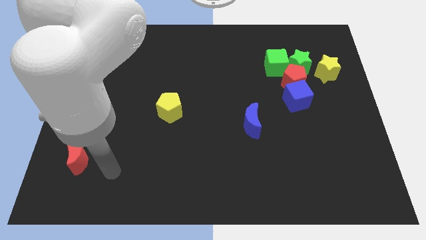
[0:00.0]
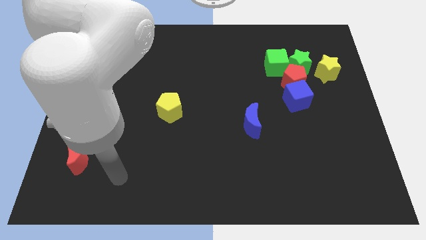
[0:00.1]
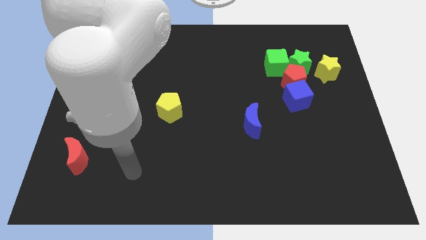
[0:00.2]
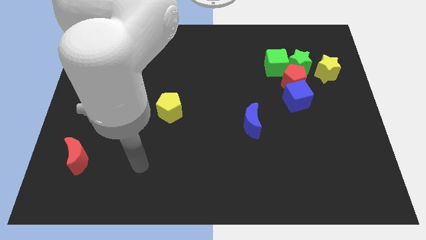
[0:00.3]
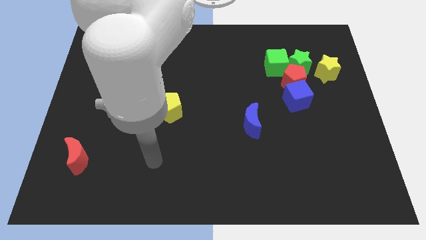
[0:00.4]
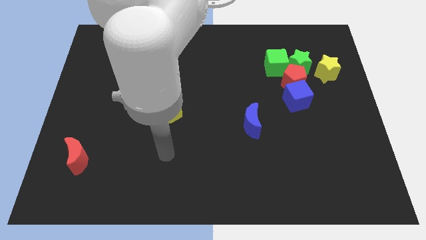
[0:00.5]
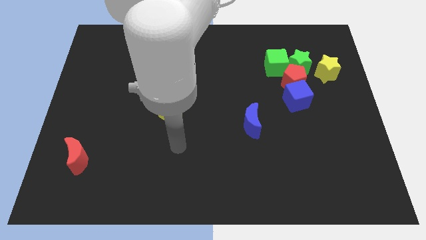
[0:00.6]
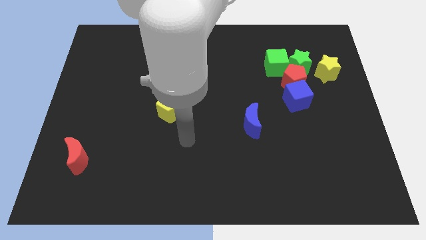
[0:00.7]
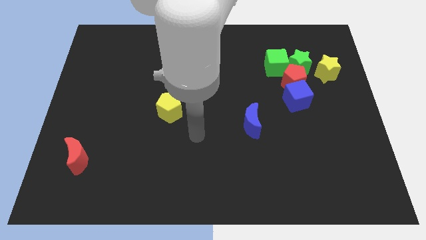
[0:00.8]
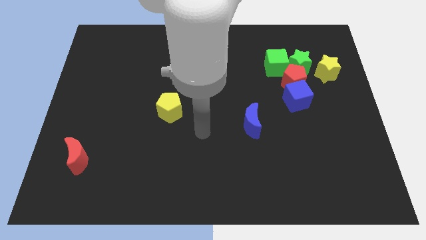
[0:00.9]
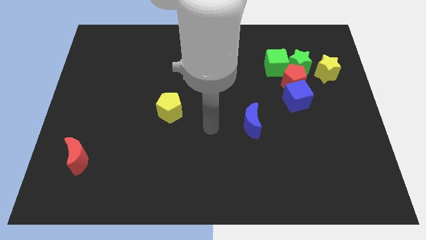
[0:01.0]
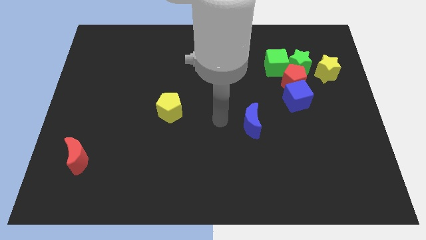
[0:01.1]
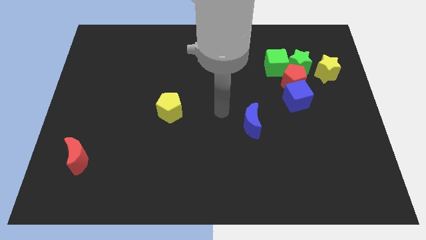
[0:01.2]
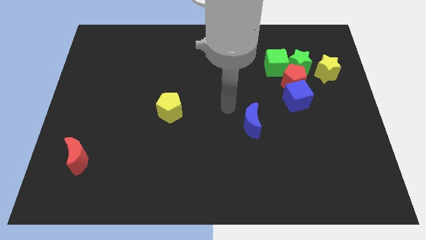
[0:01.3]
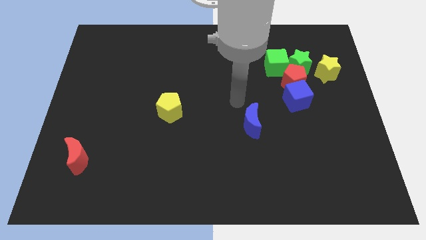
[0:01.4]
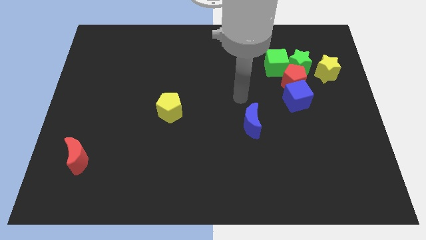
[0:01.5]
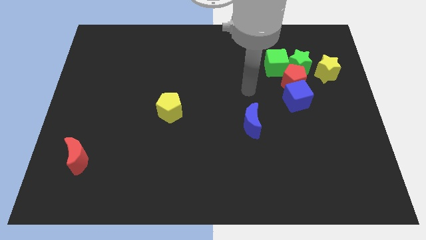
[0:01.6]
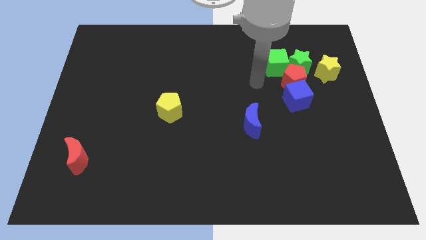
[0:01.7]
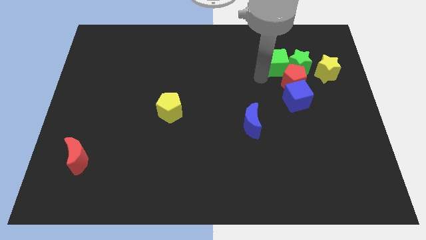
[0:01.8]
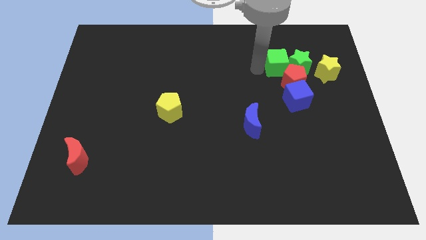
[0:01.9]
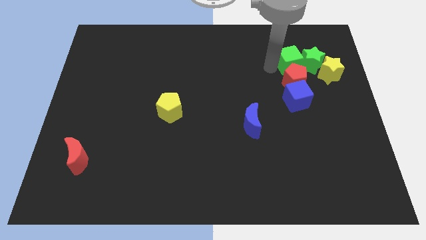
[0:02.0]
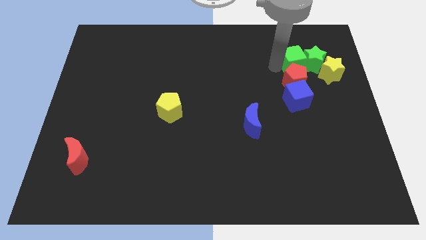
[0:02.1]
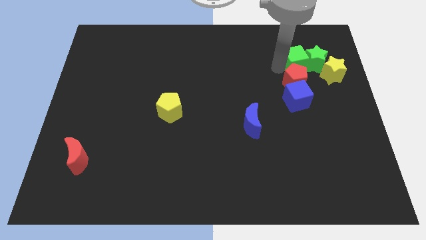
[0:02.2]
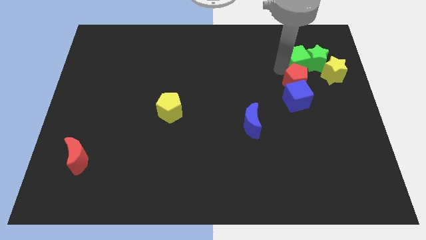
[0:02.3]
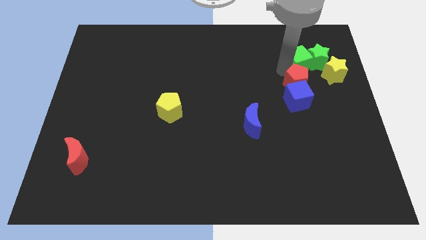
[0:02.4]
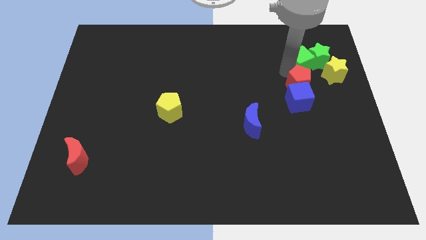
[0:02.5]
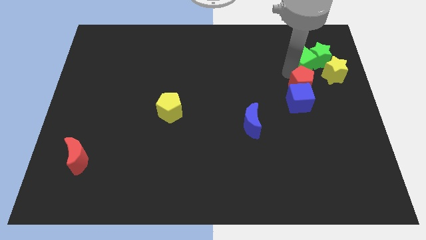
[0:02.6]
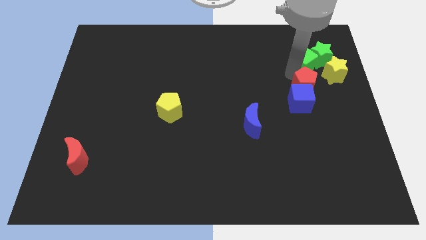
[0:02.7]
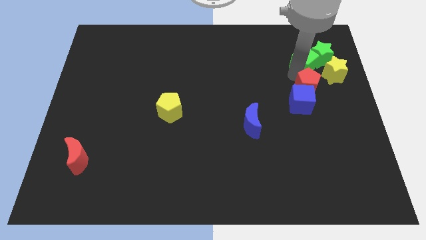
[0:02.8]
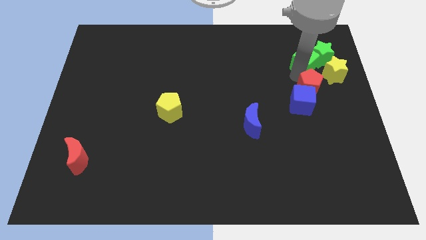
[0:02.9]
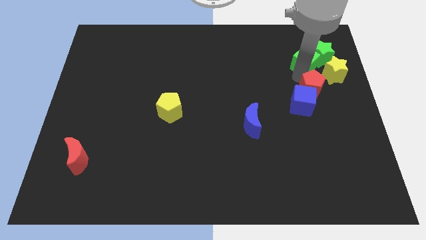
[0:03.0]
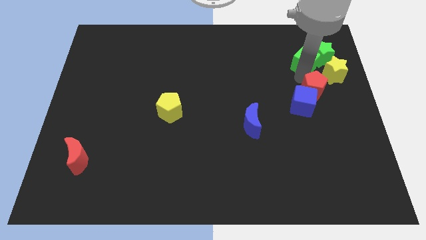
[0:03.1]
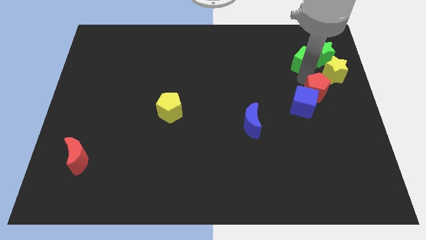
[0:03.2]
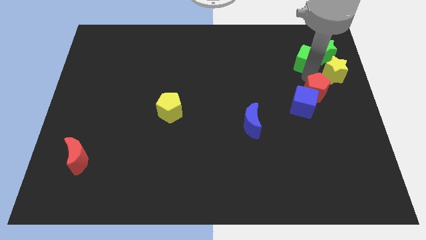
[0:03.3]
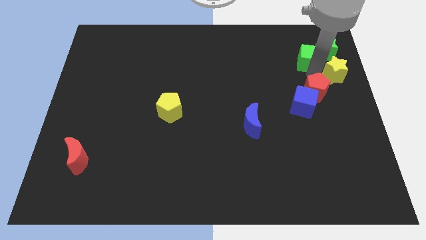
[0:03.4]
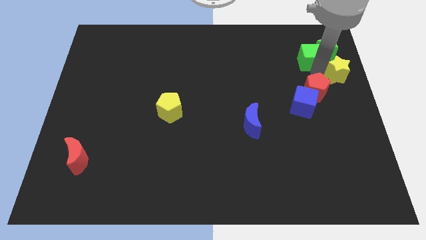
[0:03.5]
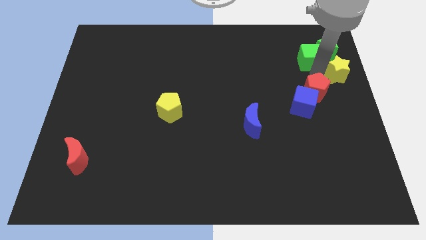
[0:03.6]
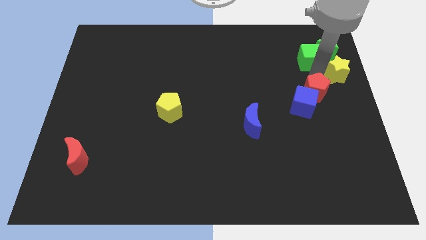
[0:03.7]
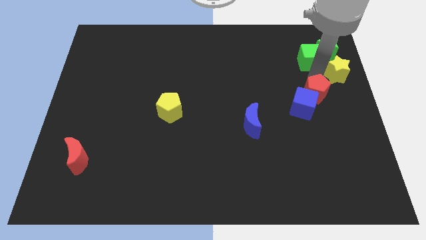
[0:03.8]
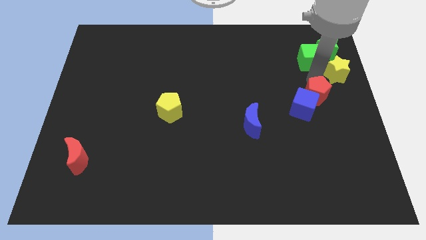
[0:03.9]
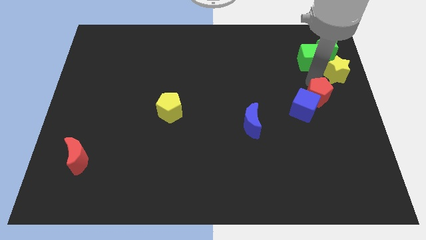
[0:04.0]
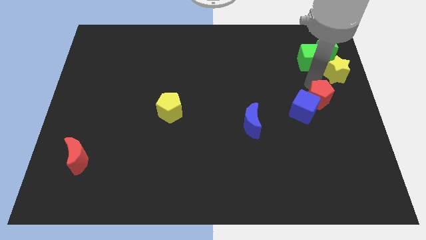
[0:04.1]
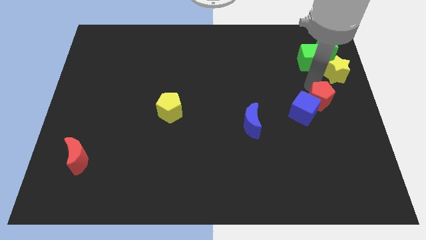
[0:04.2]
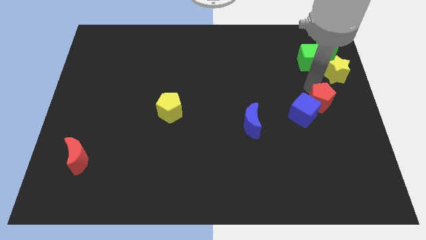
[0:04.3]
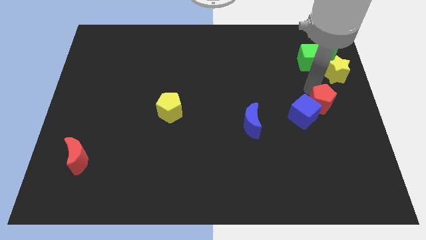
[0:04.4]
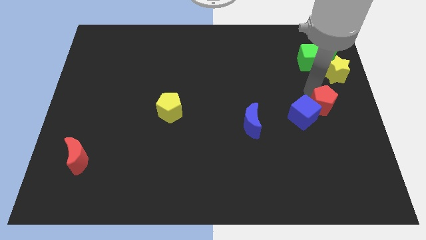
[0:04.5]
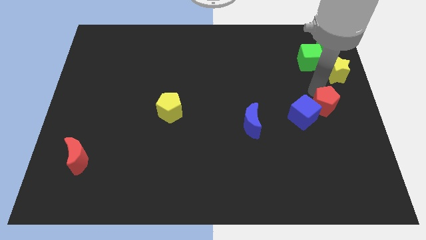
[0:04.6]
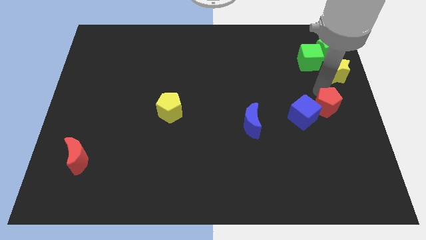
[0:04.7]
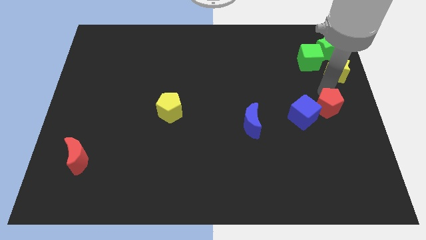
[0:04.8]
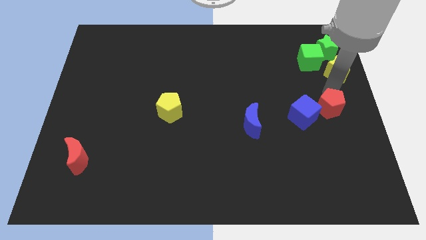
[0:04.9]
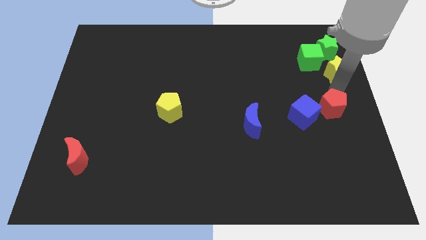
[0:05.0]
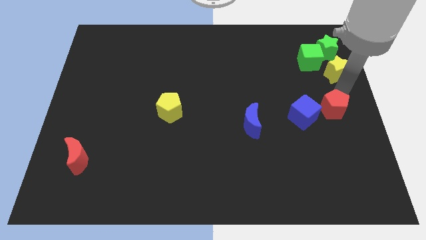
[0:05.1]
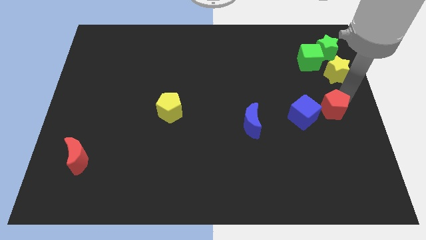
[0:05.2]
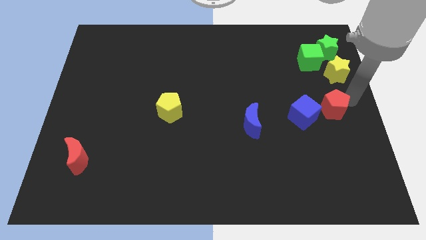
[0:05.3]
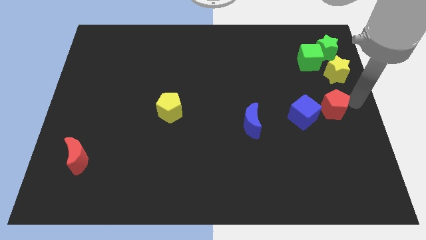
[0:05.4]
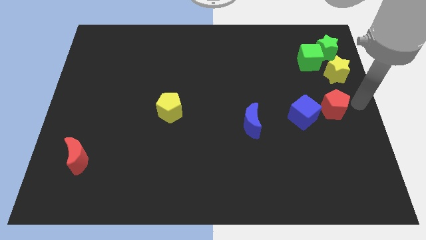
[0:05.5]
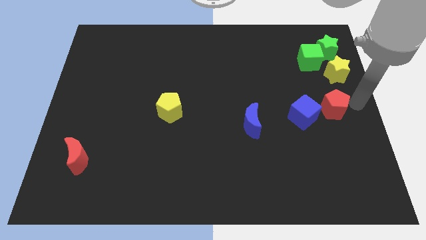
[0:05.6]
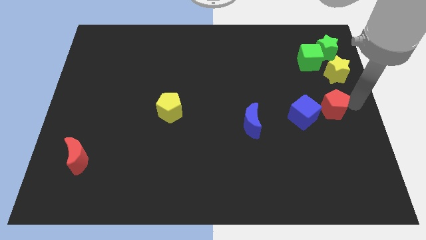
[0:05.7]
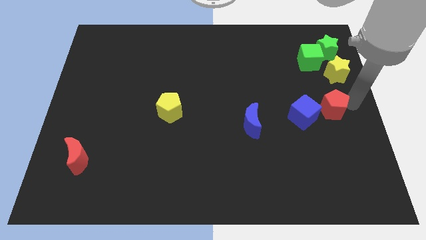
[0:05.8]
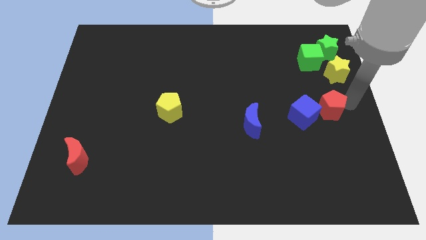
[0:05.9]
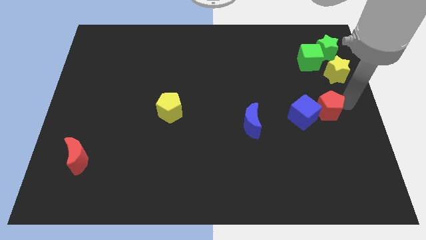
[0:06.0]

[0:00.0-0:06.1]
move the red pentagon down a little

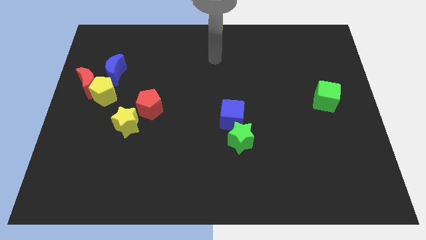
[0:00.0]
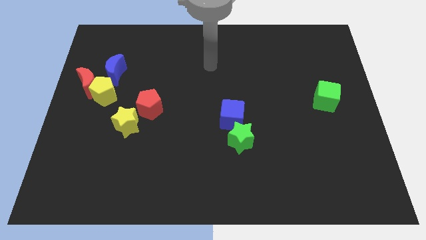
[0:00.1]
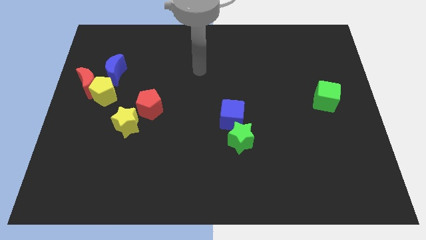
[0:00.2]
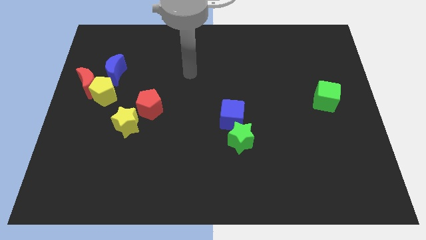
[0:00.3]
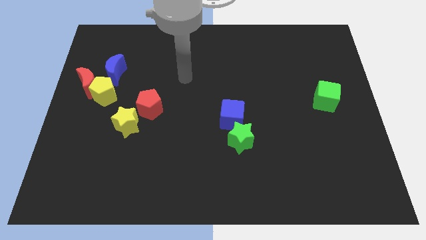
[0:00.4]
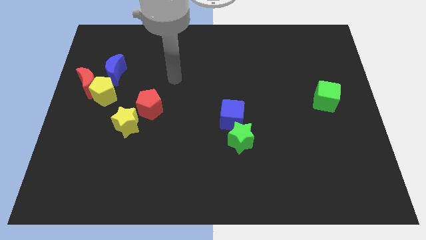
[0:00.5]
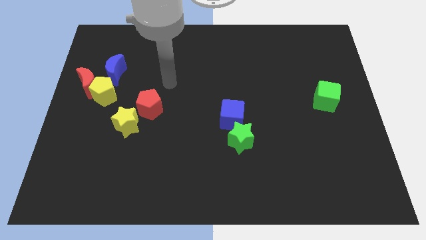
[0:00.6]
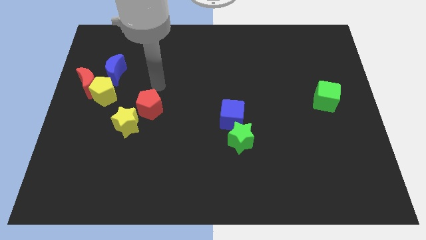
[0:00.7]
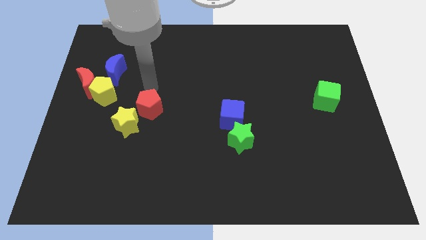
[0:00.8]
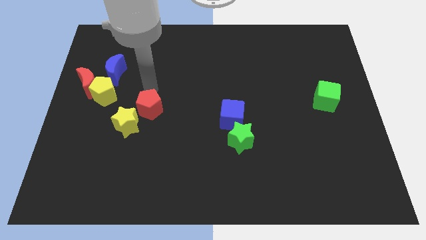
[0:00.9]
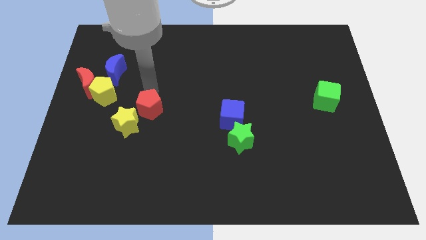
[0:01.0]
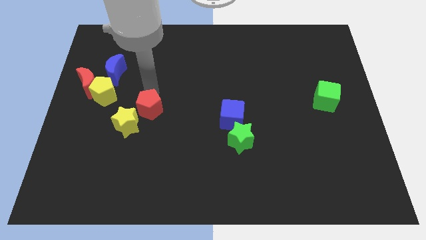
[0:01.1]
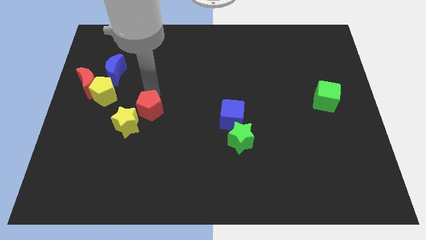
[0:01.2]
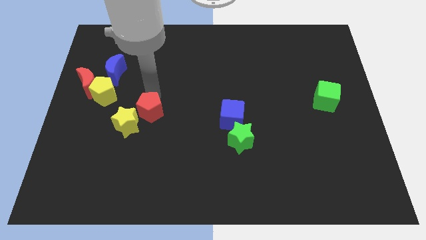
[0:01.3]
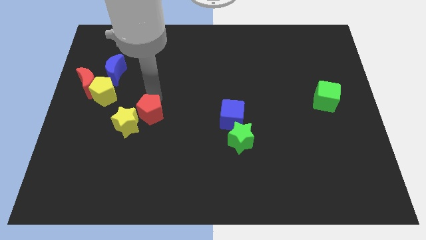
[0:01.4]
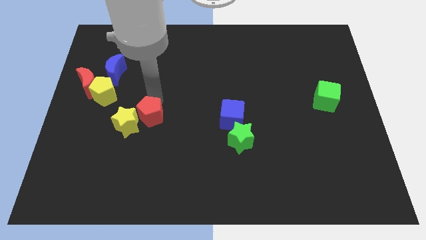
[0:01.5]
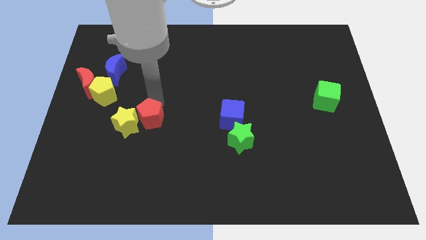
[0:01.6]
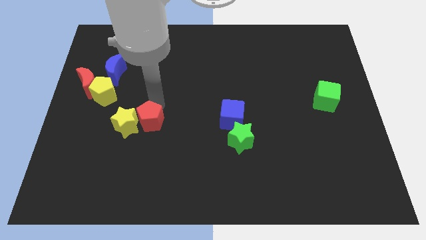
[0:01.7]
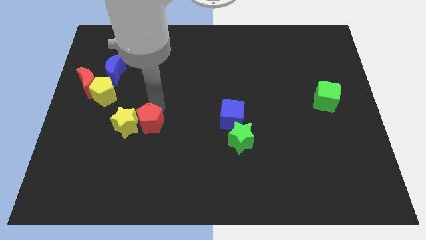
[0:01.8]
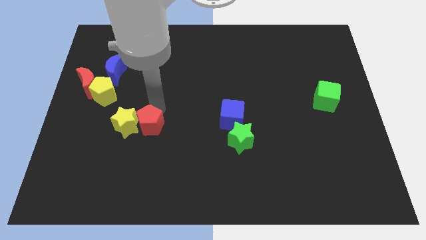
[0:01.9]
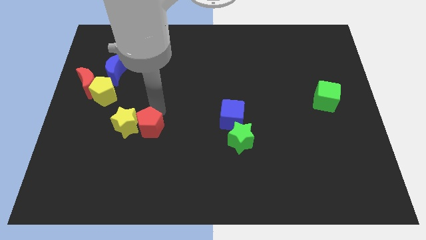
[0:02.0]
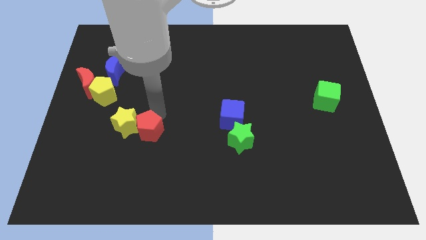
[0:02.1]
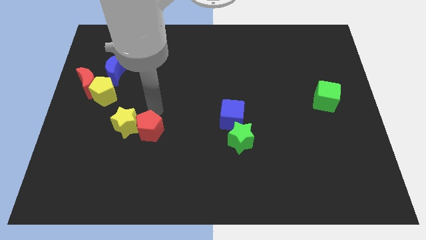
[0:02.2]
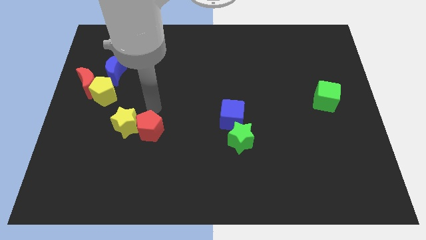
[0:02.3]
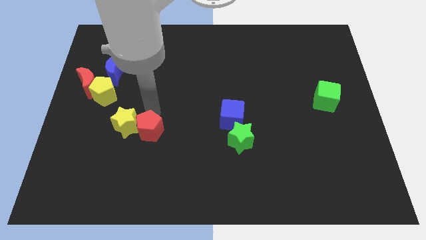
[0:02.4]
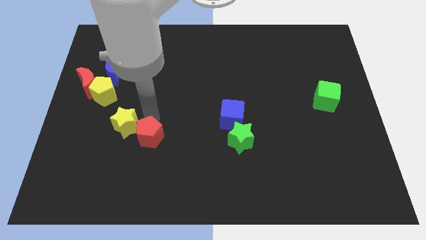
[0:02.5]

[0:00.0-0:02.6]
slightly slide the red pentagon downwards
